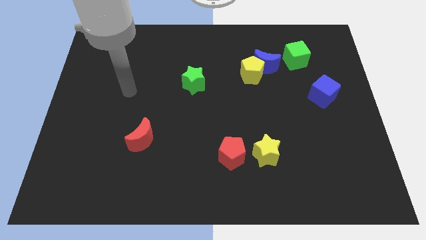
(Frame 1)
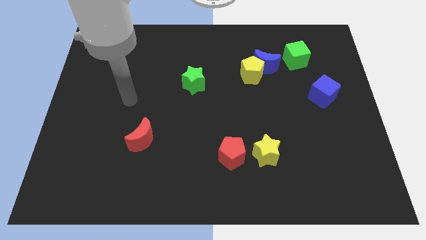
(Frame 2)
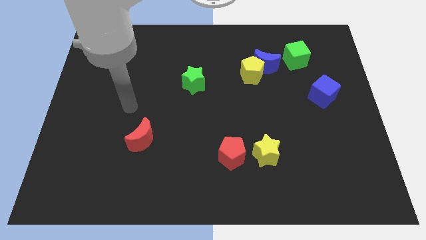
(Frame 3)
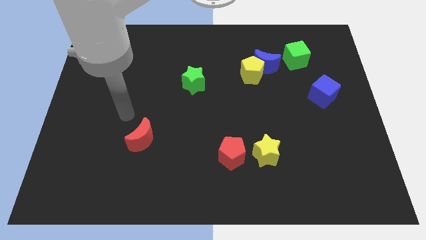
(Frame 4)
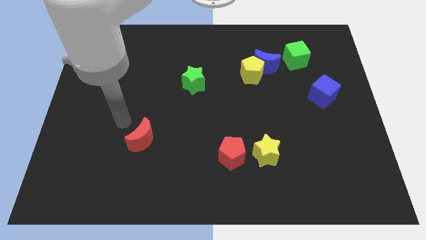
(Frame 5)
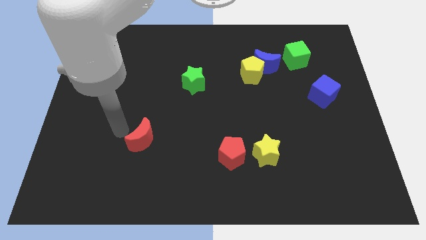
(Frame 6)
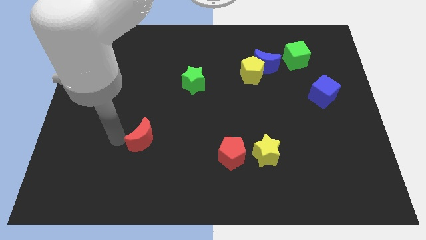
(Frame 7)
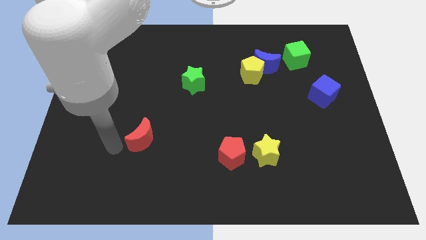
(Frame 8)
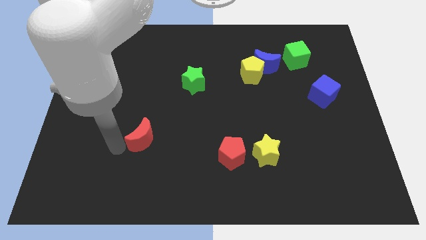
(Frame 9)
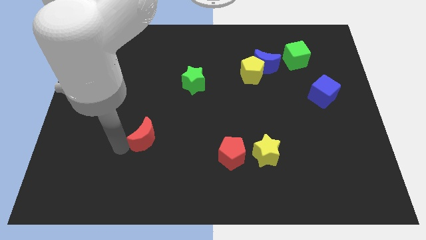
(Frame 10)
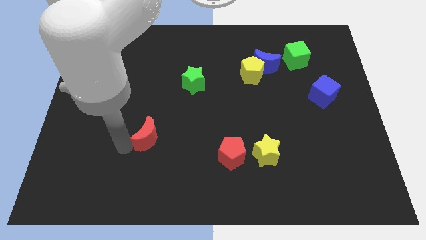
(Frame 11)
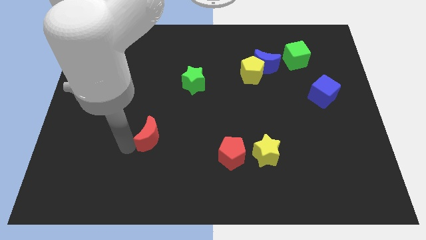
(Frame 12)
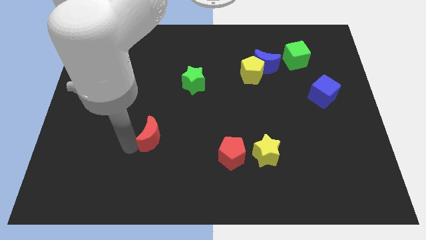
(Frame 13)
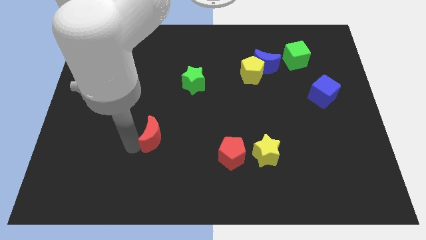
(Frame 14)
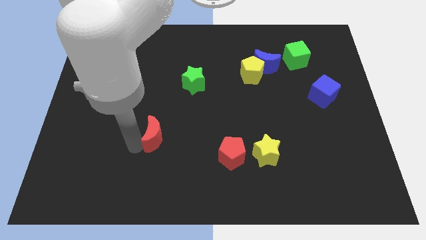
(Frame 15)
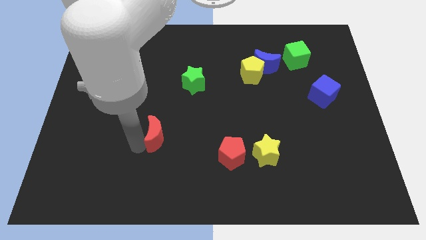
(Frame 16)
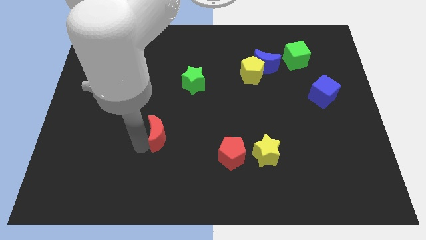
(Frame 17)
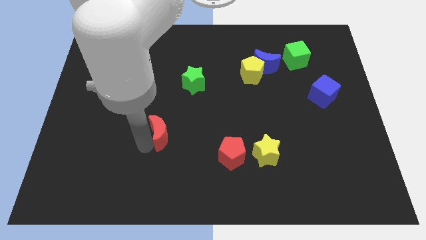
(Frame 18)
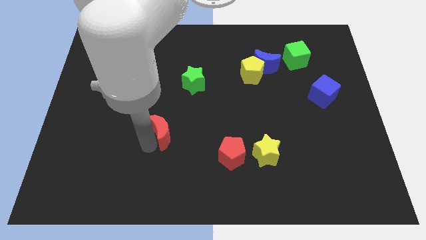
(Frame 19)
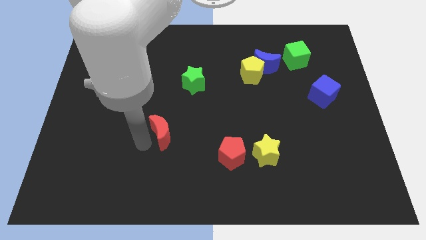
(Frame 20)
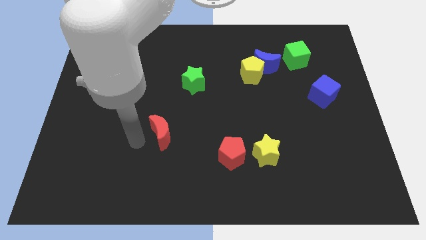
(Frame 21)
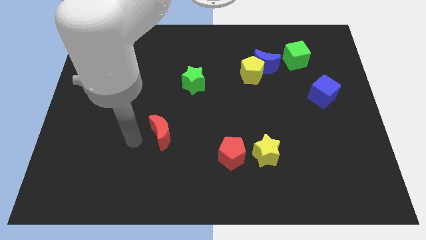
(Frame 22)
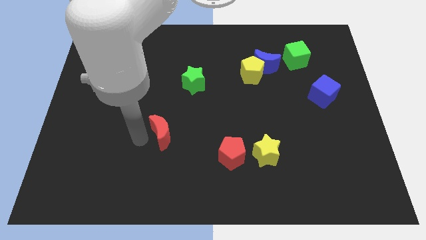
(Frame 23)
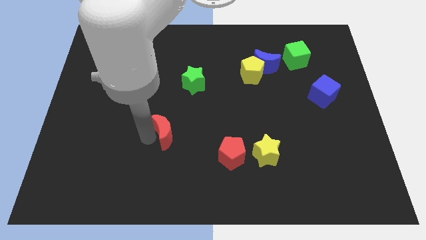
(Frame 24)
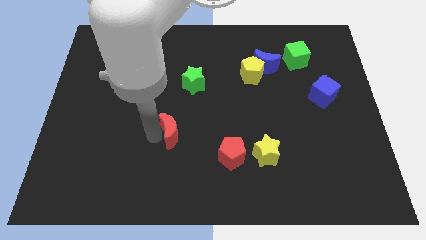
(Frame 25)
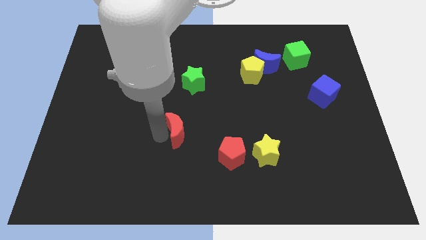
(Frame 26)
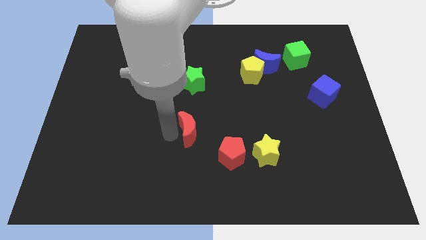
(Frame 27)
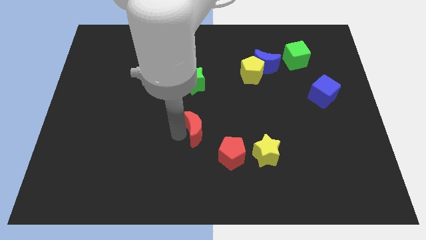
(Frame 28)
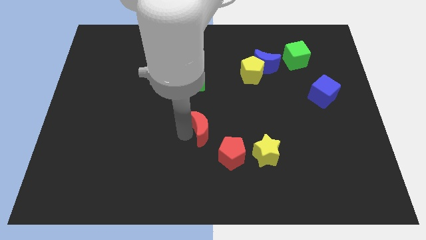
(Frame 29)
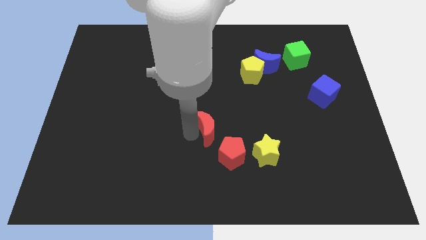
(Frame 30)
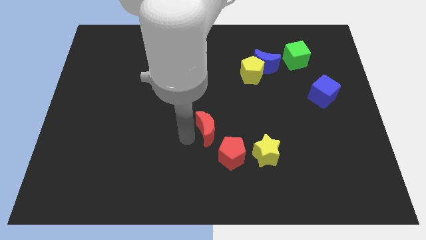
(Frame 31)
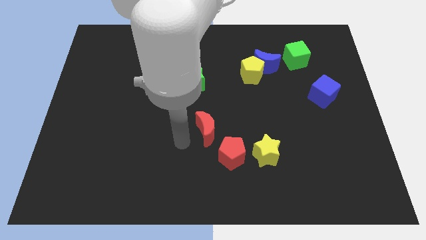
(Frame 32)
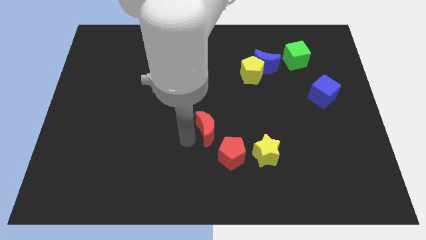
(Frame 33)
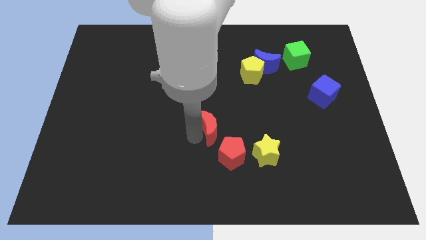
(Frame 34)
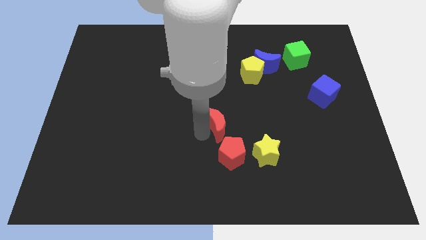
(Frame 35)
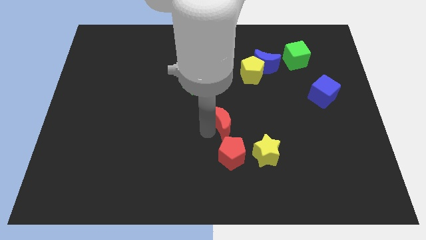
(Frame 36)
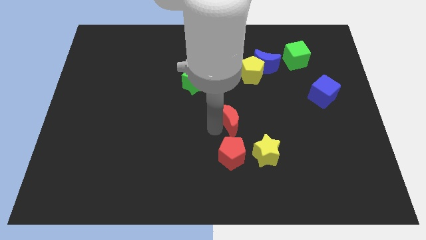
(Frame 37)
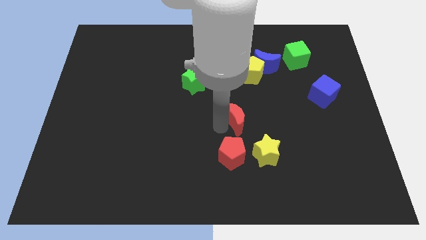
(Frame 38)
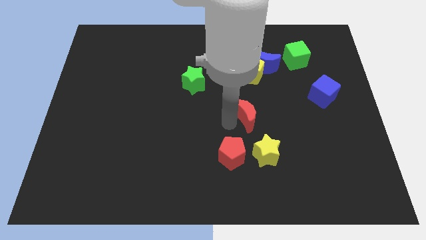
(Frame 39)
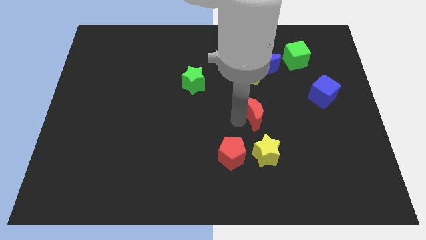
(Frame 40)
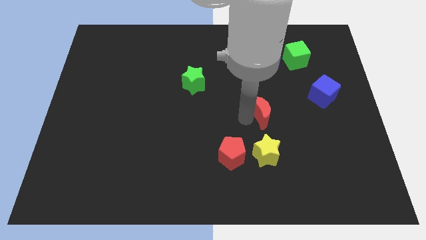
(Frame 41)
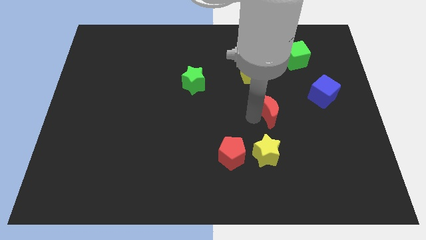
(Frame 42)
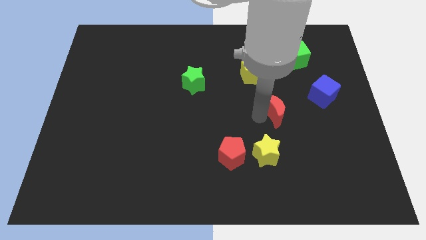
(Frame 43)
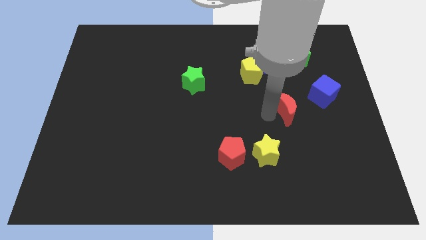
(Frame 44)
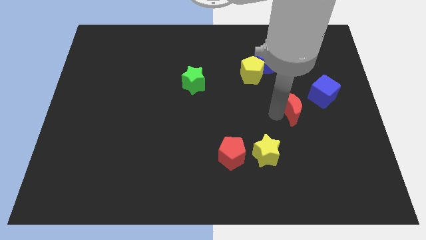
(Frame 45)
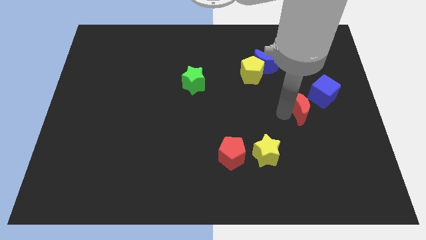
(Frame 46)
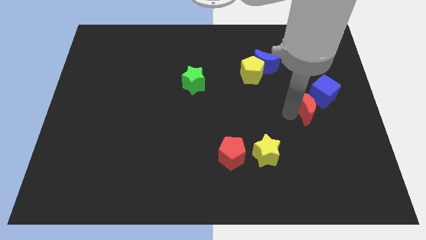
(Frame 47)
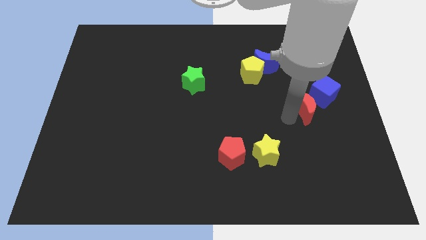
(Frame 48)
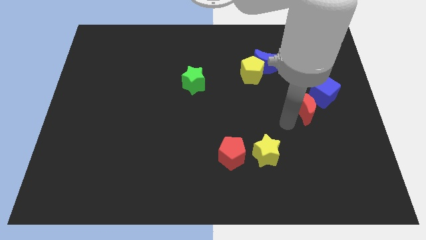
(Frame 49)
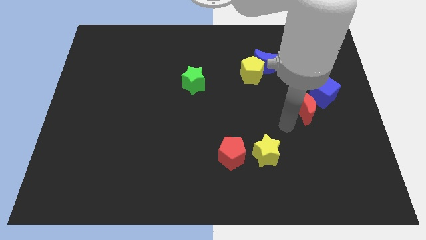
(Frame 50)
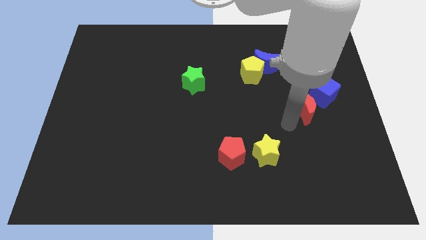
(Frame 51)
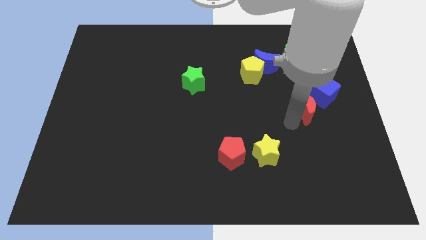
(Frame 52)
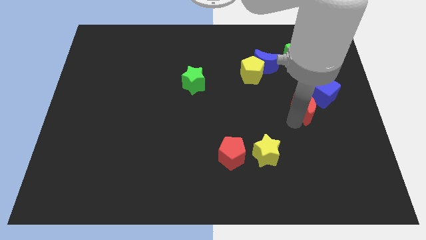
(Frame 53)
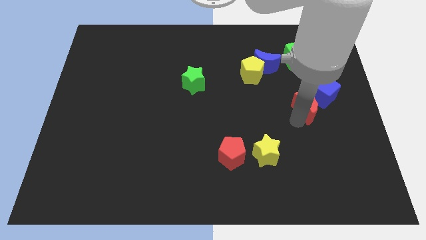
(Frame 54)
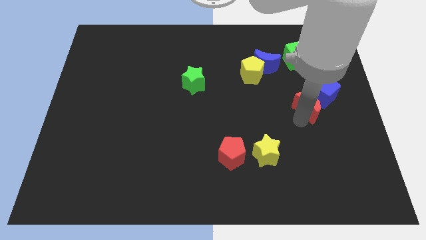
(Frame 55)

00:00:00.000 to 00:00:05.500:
put the red moon next to the blue cube

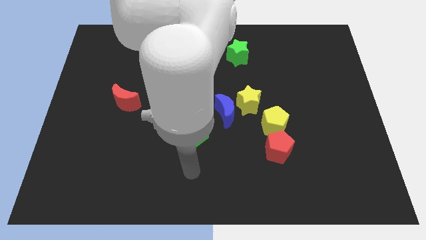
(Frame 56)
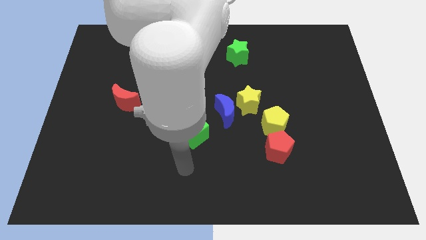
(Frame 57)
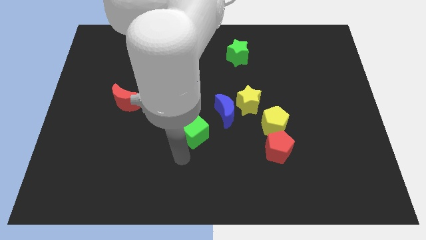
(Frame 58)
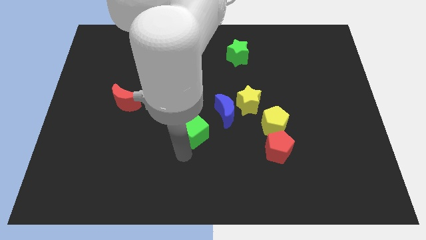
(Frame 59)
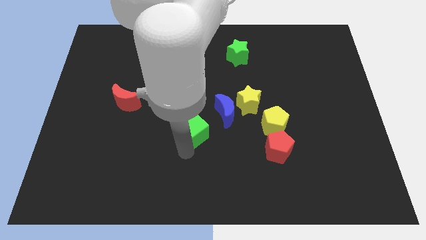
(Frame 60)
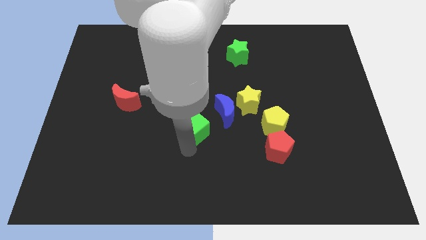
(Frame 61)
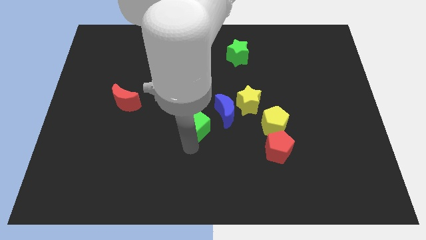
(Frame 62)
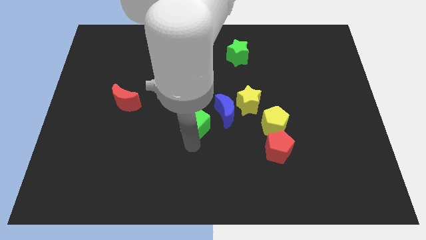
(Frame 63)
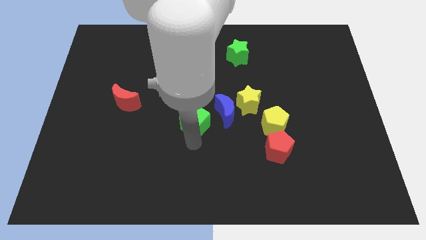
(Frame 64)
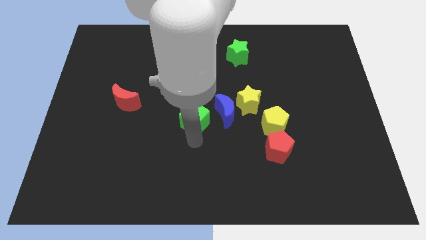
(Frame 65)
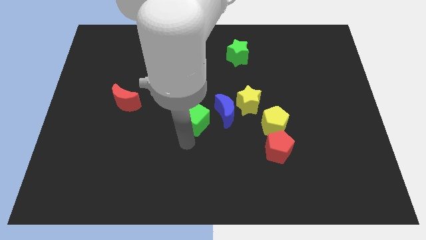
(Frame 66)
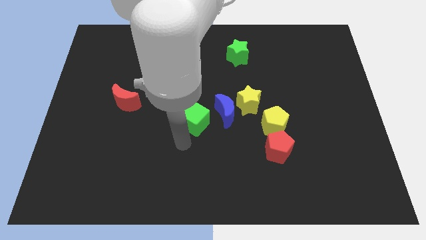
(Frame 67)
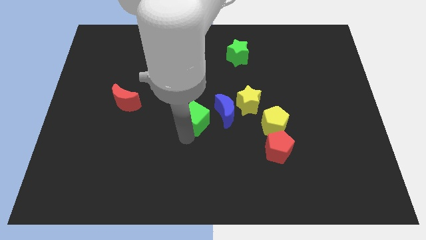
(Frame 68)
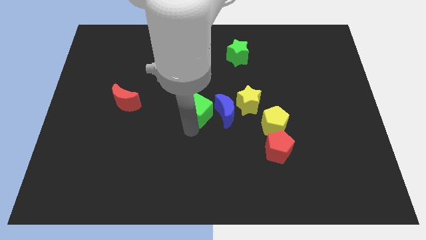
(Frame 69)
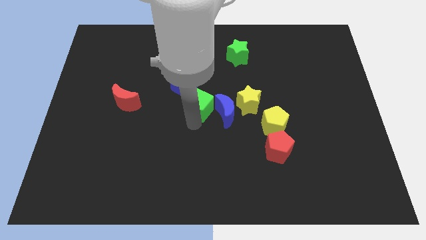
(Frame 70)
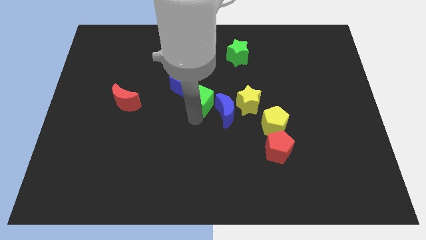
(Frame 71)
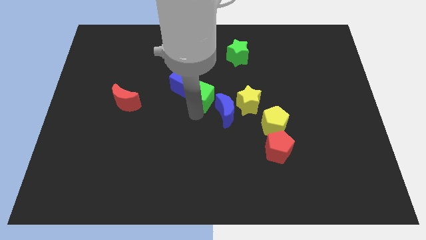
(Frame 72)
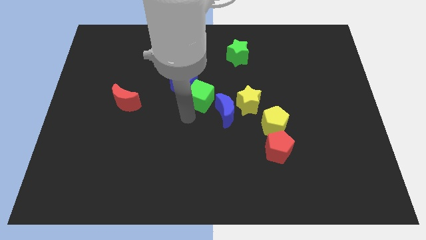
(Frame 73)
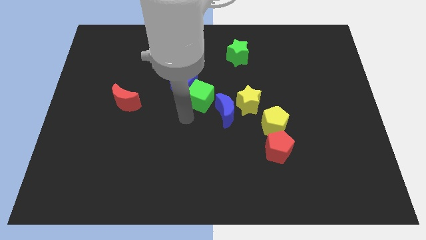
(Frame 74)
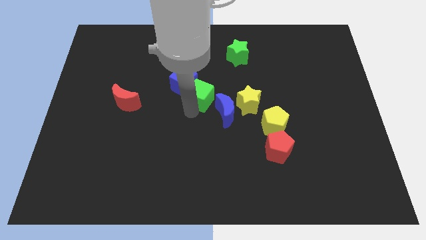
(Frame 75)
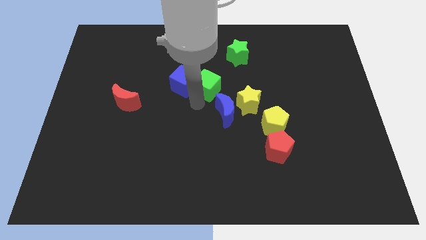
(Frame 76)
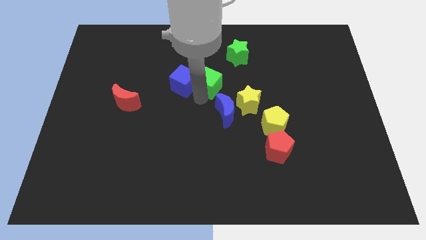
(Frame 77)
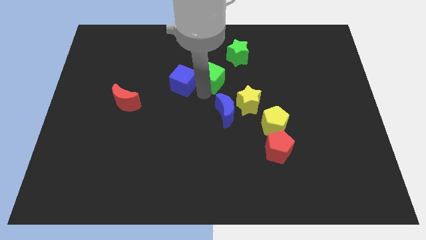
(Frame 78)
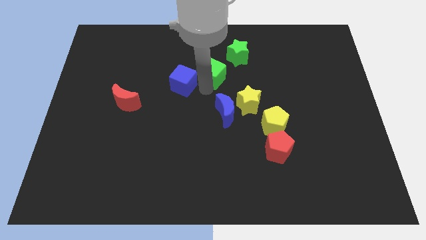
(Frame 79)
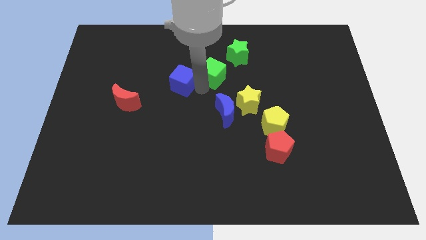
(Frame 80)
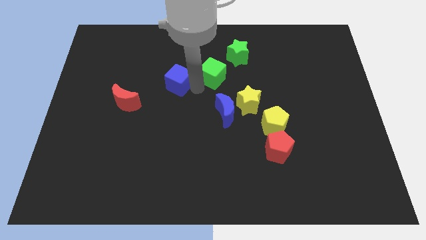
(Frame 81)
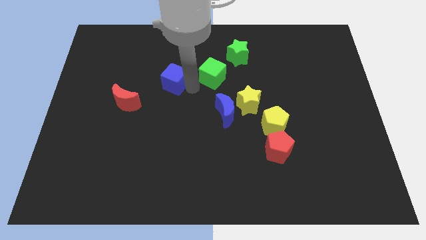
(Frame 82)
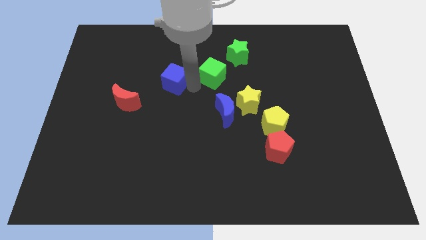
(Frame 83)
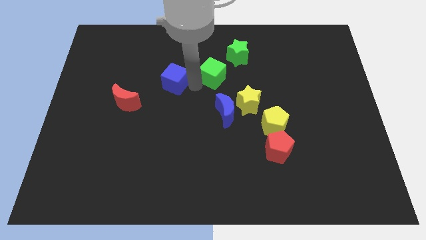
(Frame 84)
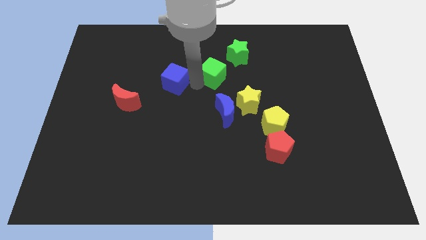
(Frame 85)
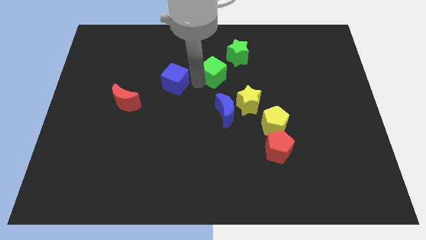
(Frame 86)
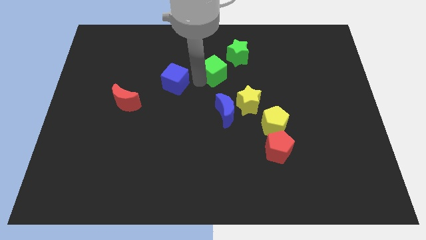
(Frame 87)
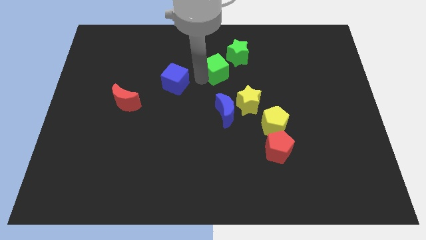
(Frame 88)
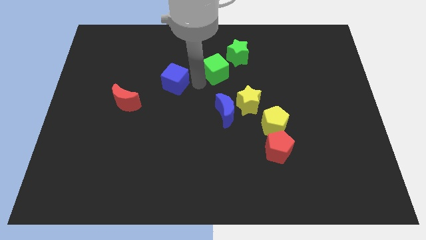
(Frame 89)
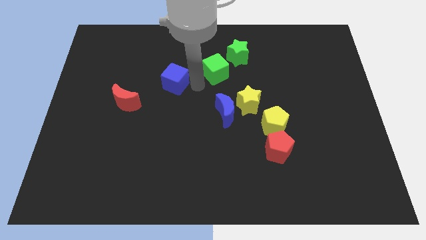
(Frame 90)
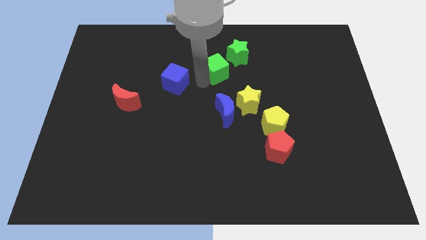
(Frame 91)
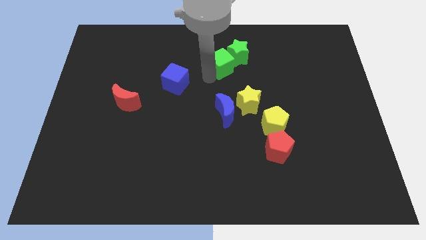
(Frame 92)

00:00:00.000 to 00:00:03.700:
slide the green cube towards the green star
